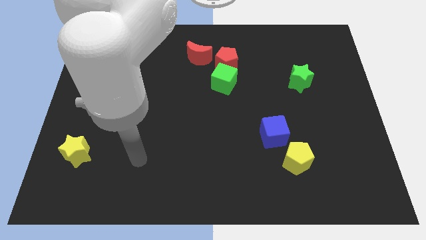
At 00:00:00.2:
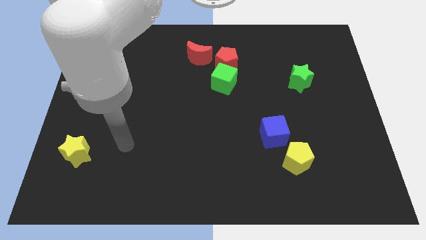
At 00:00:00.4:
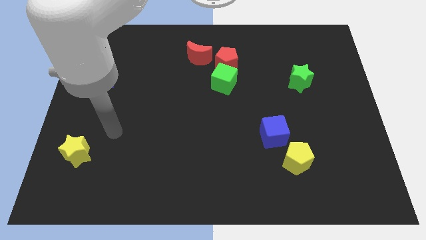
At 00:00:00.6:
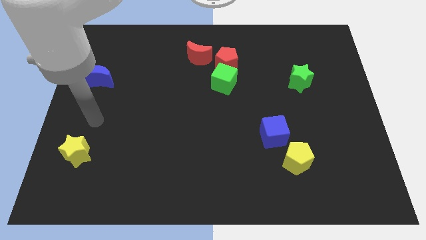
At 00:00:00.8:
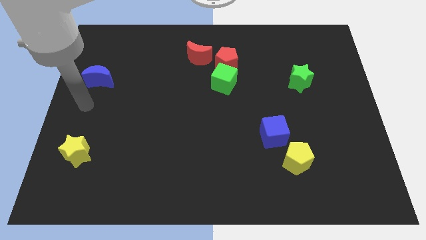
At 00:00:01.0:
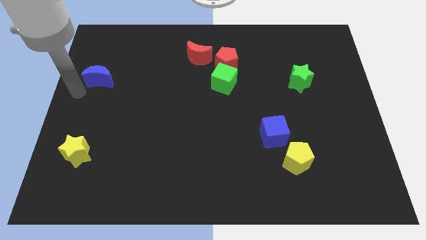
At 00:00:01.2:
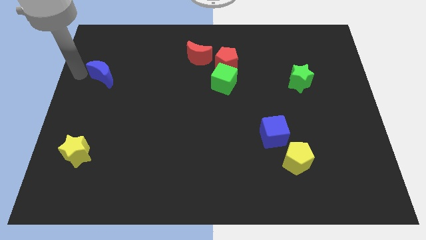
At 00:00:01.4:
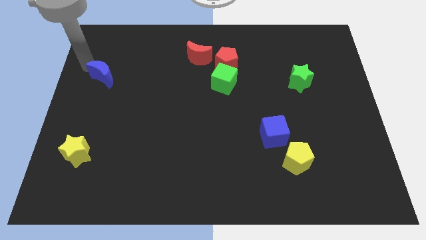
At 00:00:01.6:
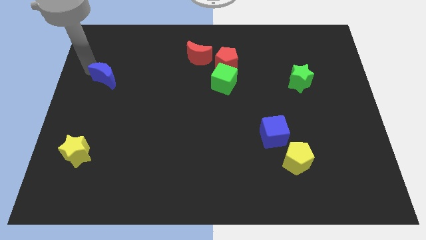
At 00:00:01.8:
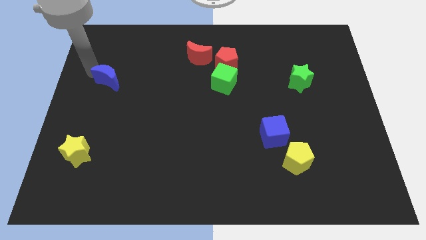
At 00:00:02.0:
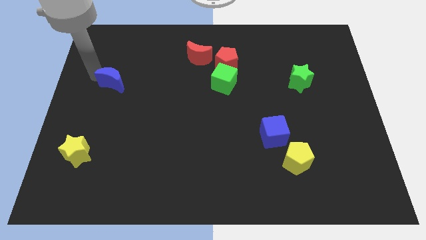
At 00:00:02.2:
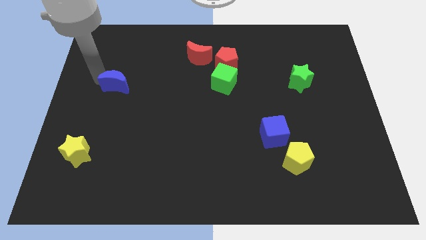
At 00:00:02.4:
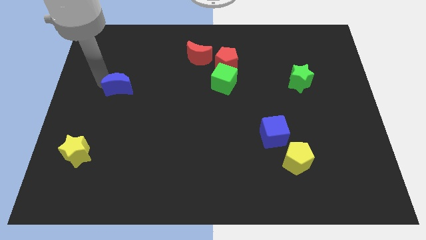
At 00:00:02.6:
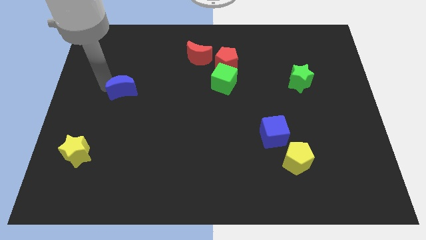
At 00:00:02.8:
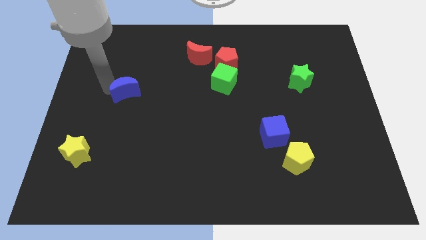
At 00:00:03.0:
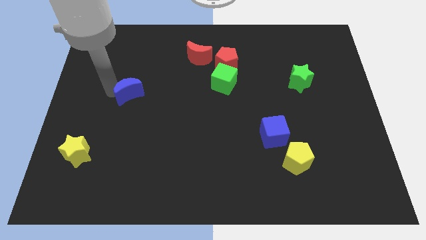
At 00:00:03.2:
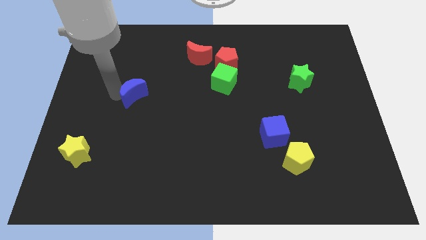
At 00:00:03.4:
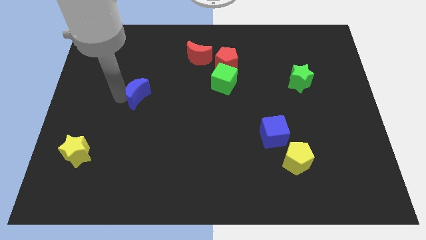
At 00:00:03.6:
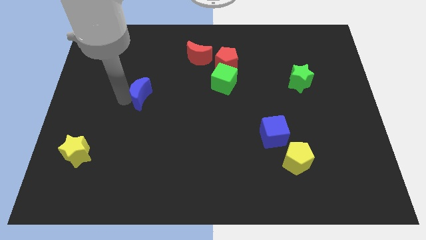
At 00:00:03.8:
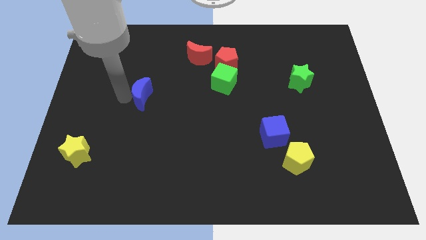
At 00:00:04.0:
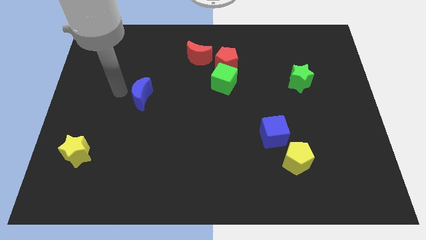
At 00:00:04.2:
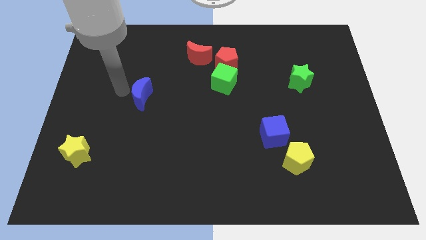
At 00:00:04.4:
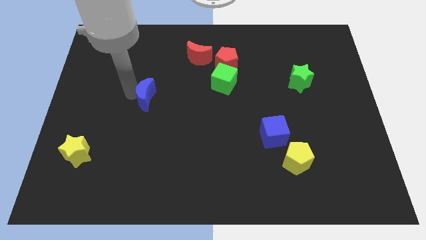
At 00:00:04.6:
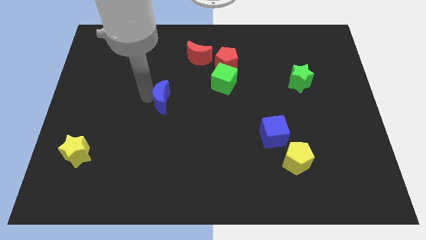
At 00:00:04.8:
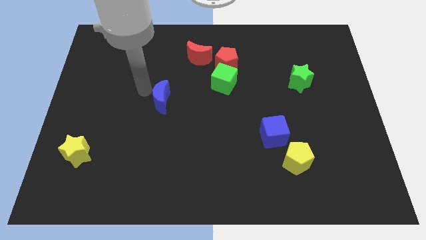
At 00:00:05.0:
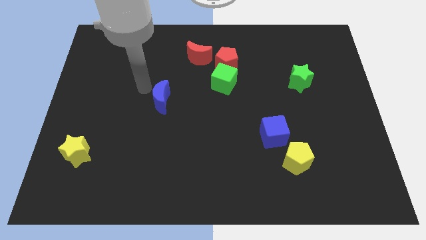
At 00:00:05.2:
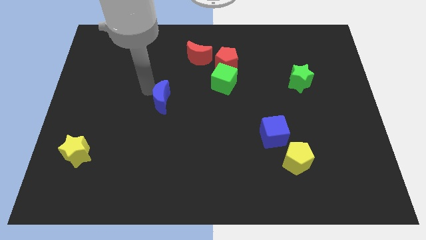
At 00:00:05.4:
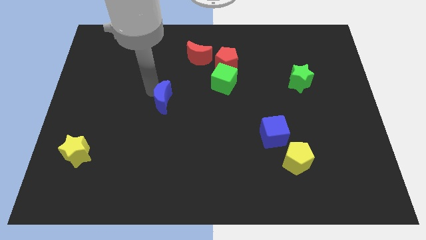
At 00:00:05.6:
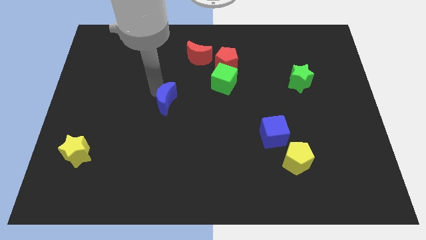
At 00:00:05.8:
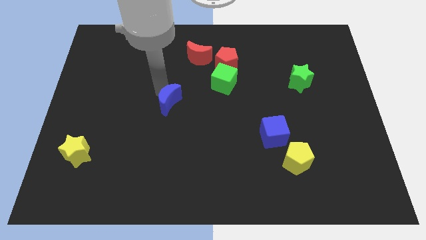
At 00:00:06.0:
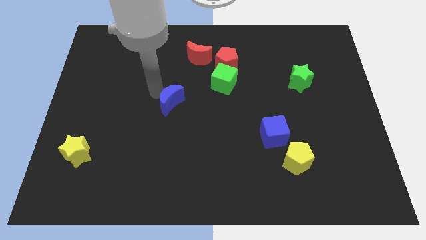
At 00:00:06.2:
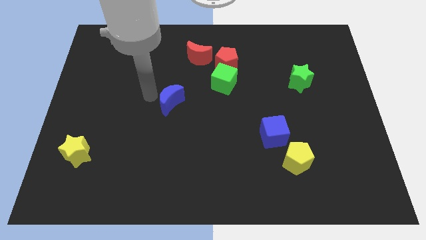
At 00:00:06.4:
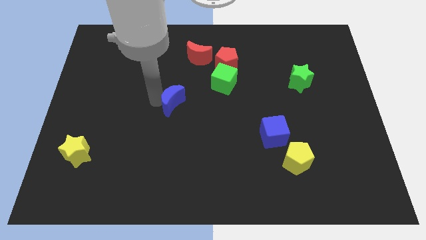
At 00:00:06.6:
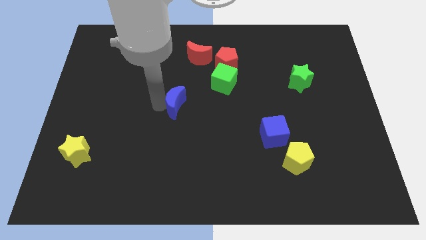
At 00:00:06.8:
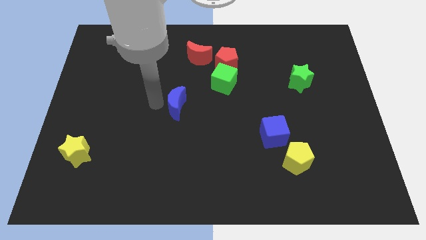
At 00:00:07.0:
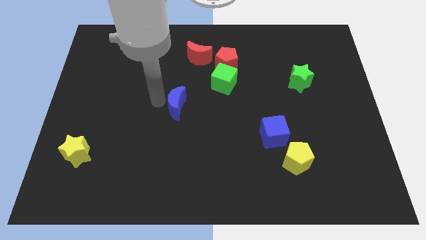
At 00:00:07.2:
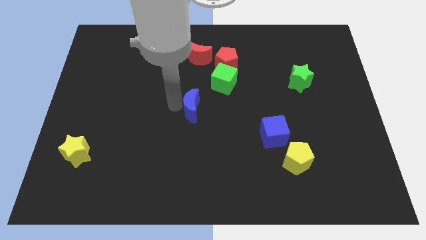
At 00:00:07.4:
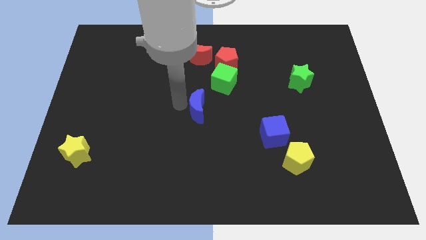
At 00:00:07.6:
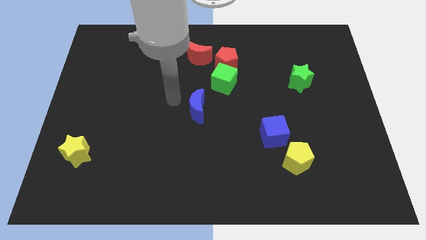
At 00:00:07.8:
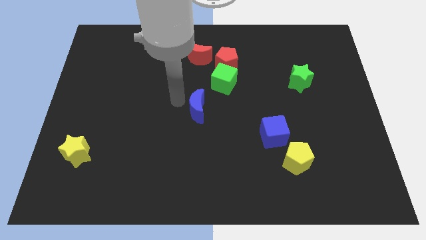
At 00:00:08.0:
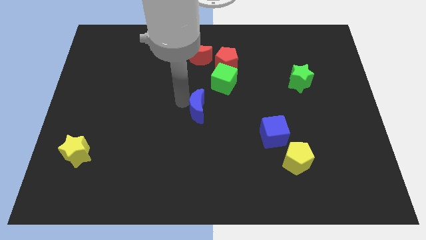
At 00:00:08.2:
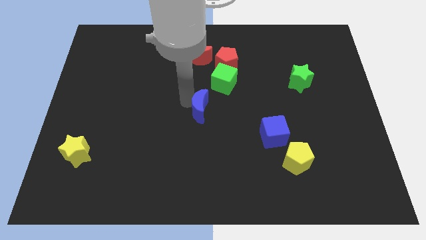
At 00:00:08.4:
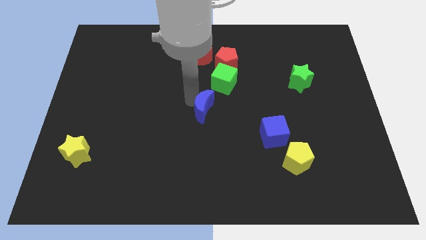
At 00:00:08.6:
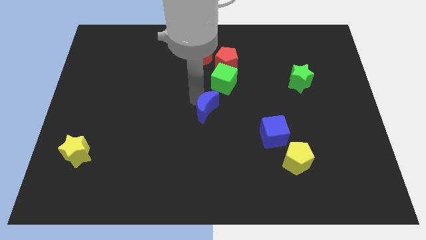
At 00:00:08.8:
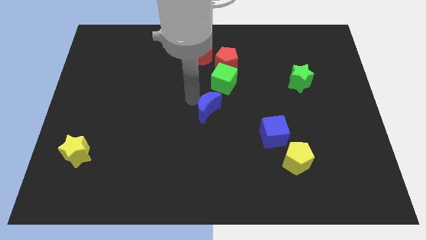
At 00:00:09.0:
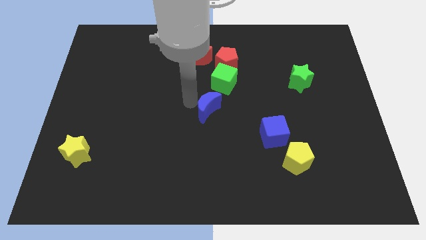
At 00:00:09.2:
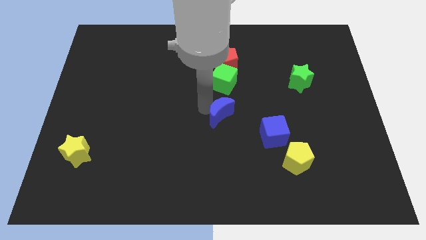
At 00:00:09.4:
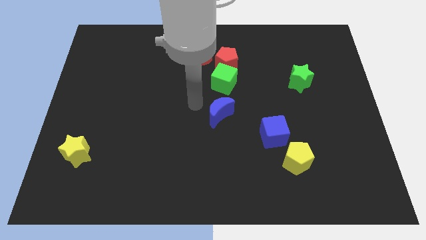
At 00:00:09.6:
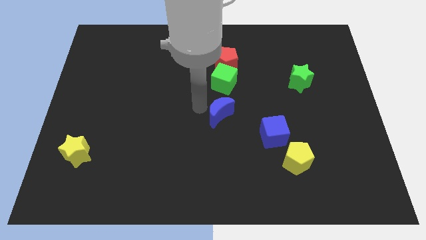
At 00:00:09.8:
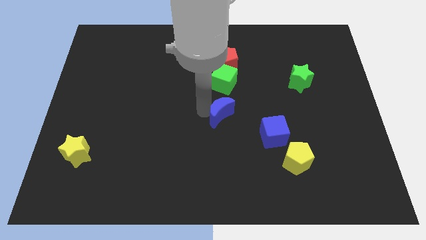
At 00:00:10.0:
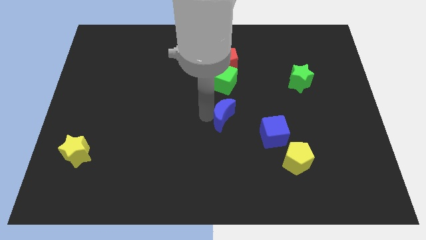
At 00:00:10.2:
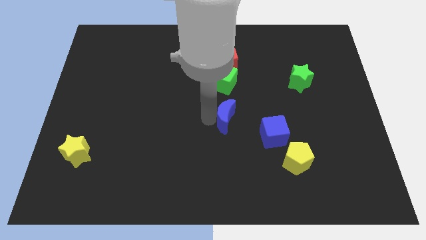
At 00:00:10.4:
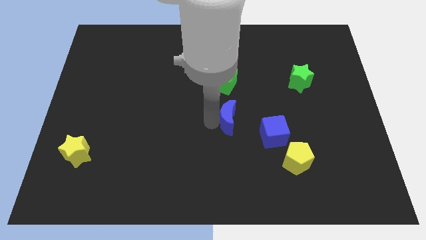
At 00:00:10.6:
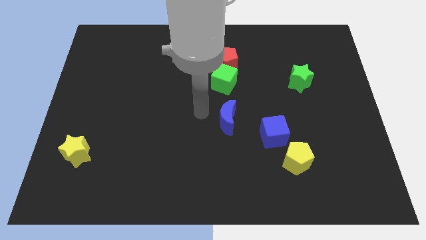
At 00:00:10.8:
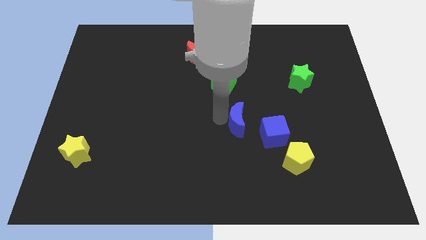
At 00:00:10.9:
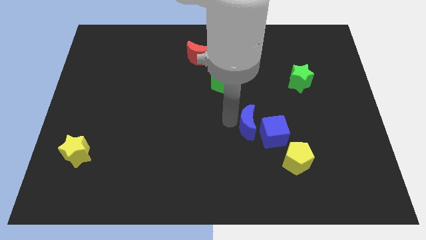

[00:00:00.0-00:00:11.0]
put the blue moon towards the blue cube

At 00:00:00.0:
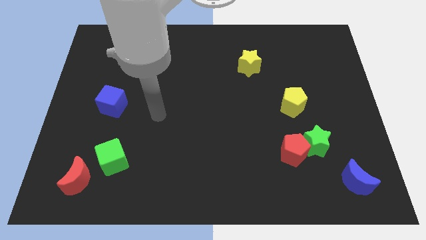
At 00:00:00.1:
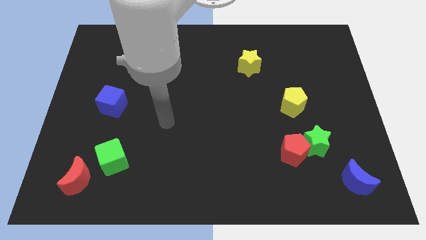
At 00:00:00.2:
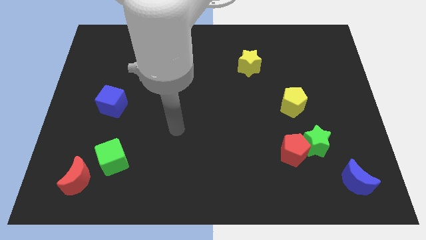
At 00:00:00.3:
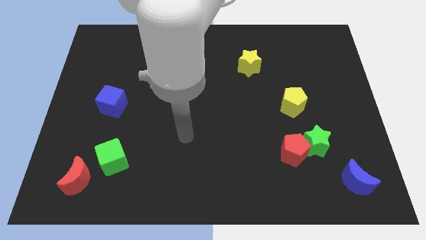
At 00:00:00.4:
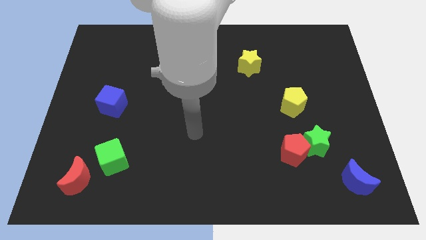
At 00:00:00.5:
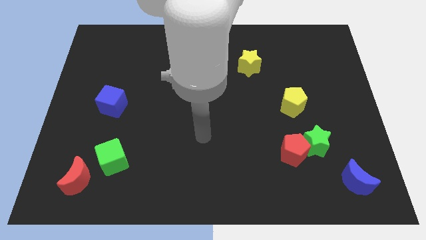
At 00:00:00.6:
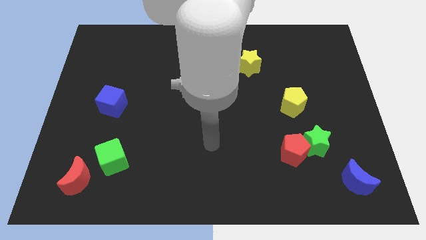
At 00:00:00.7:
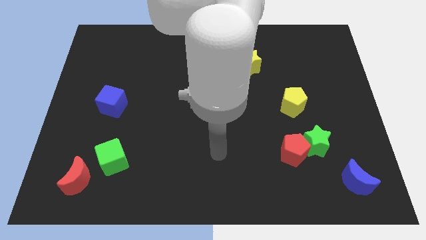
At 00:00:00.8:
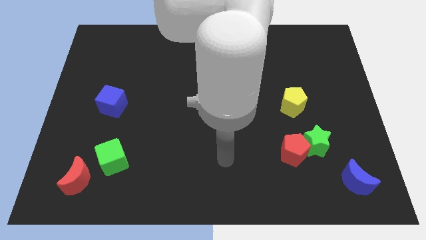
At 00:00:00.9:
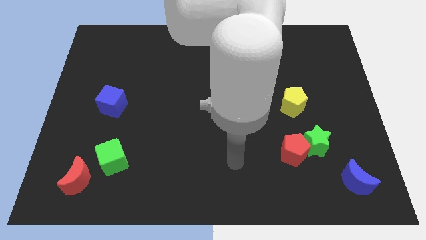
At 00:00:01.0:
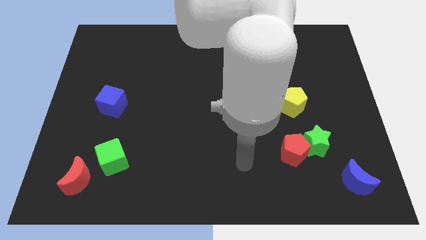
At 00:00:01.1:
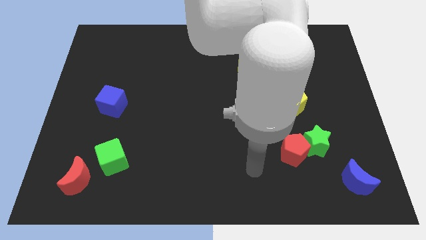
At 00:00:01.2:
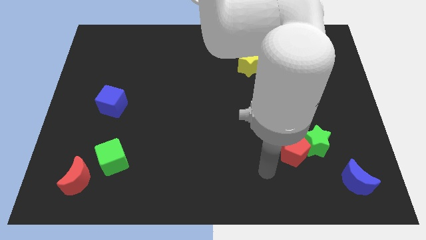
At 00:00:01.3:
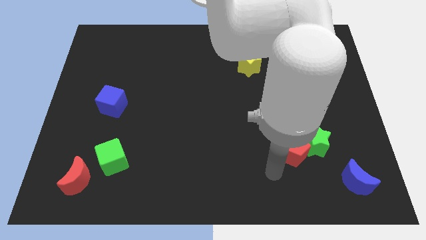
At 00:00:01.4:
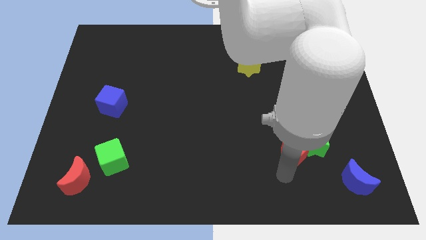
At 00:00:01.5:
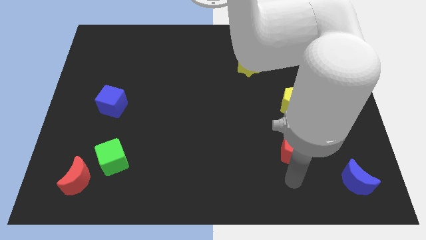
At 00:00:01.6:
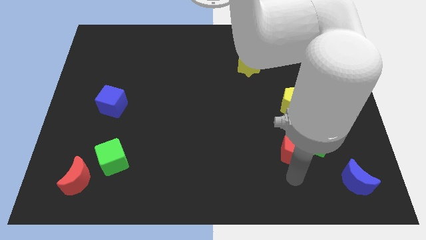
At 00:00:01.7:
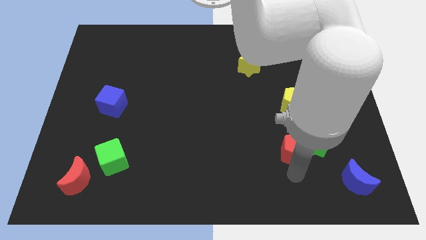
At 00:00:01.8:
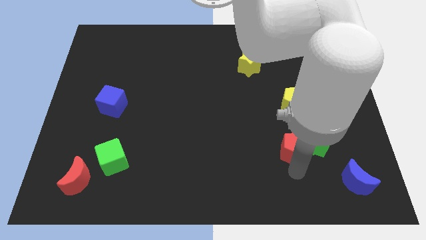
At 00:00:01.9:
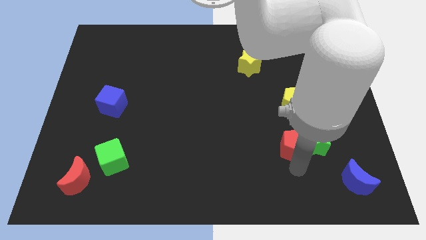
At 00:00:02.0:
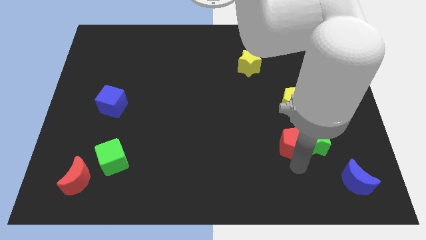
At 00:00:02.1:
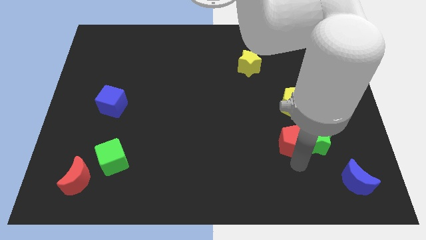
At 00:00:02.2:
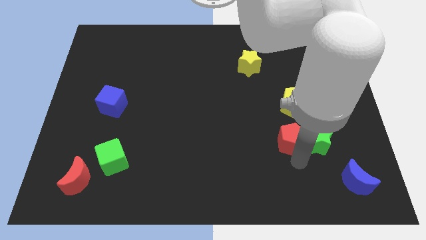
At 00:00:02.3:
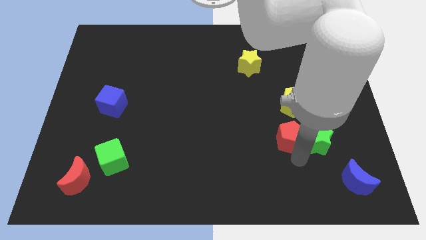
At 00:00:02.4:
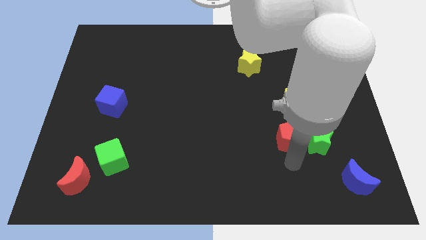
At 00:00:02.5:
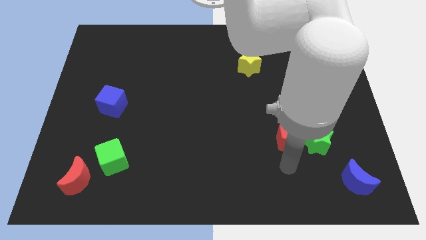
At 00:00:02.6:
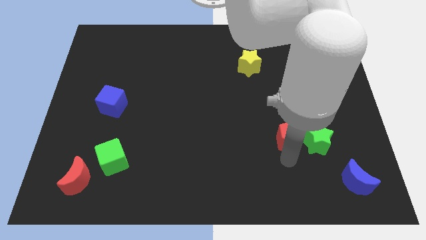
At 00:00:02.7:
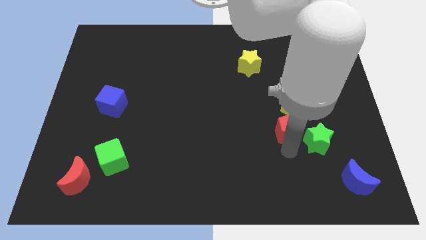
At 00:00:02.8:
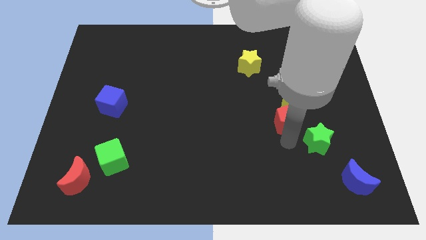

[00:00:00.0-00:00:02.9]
put the red pentagon next to the yellow pentagon
